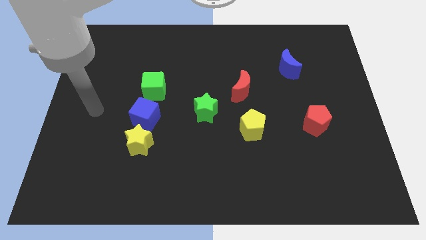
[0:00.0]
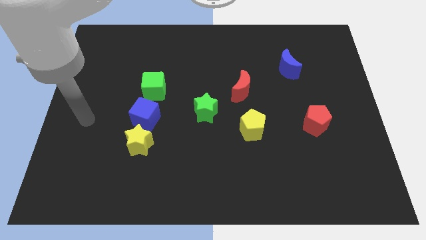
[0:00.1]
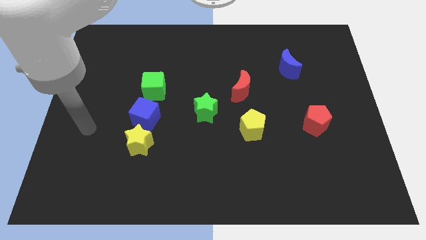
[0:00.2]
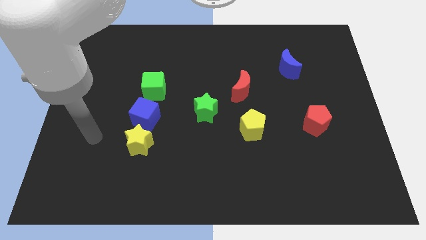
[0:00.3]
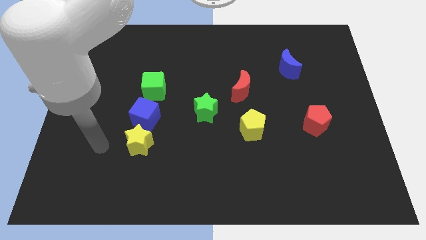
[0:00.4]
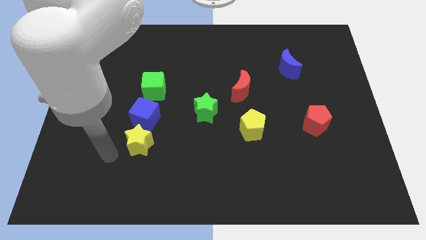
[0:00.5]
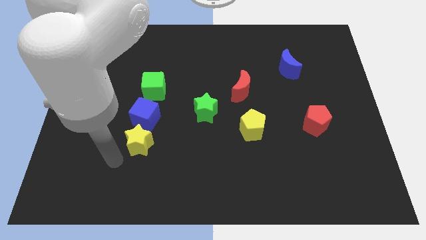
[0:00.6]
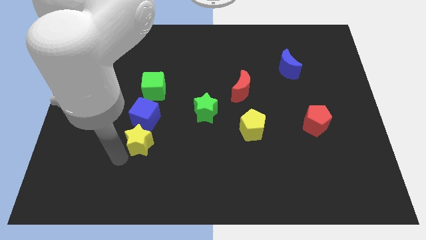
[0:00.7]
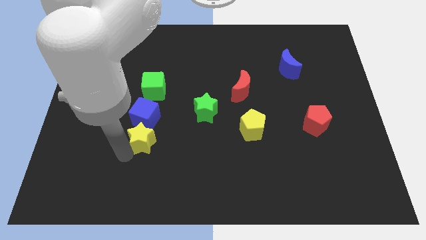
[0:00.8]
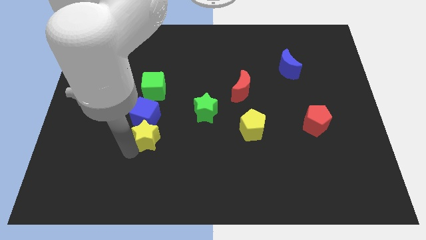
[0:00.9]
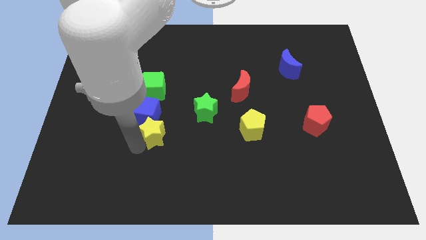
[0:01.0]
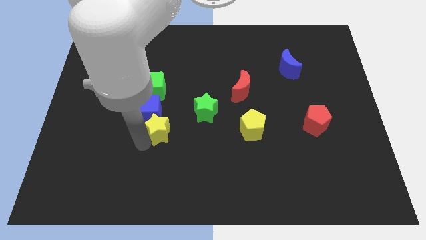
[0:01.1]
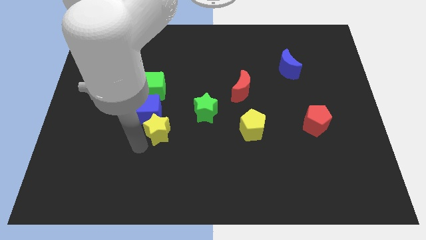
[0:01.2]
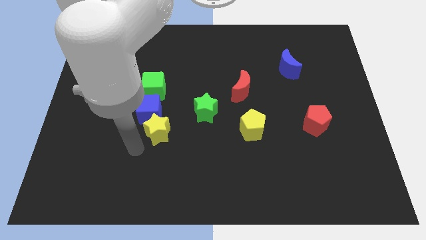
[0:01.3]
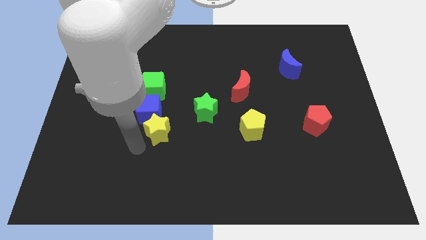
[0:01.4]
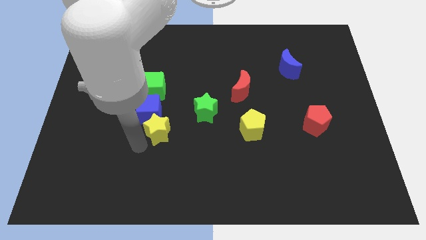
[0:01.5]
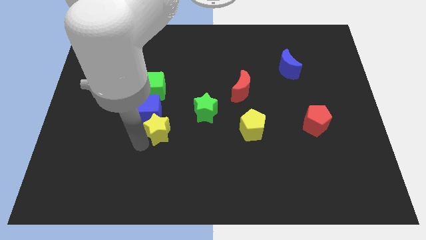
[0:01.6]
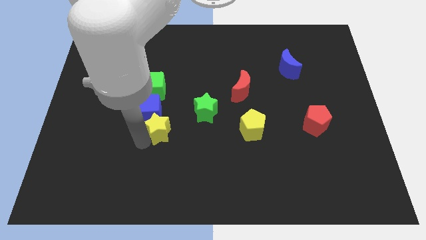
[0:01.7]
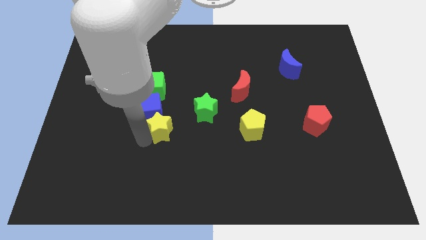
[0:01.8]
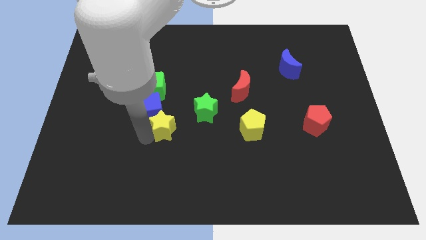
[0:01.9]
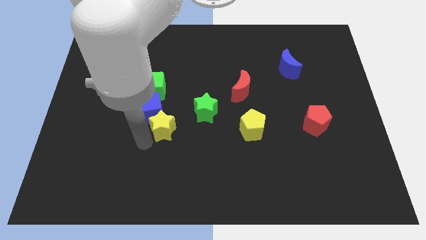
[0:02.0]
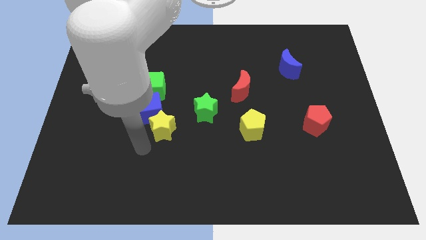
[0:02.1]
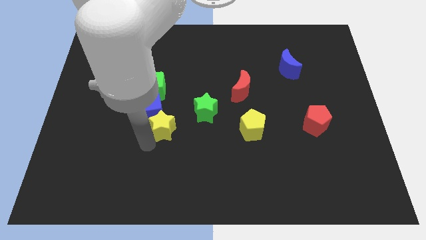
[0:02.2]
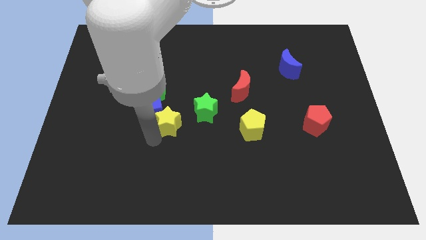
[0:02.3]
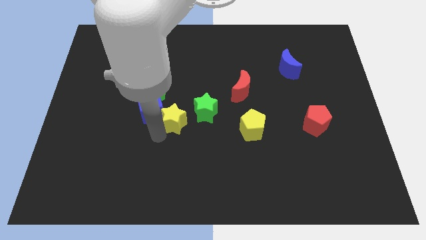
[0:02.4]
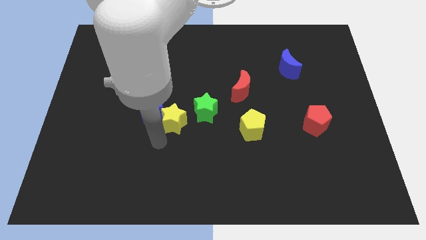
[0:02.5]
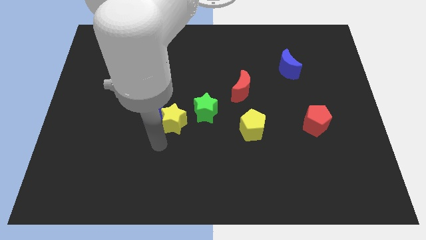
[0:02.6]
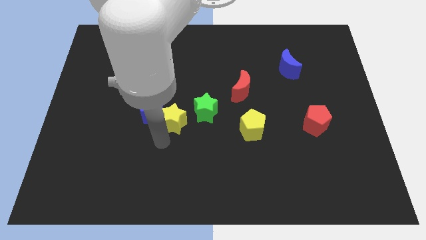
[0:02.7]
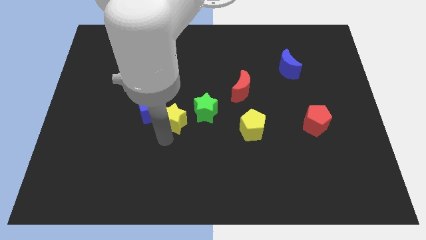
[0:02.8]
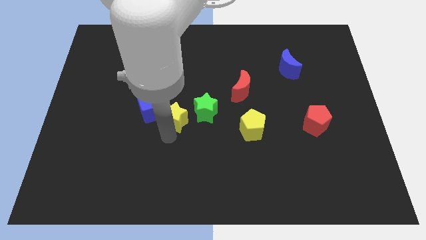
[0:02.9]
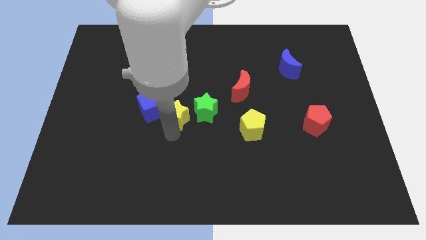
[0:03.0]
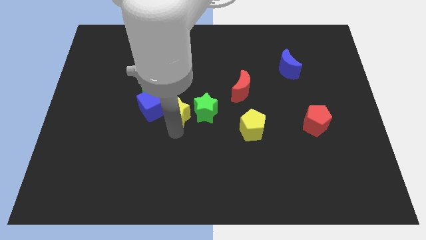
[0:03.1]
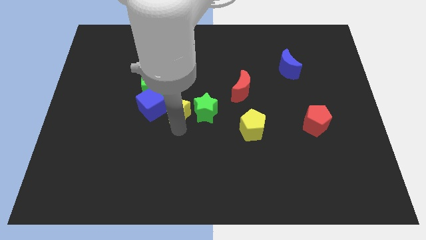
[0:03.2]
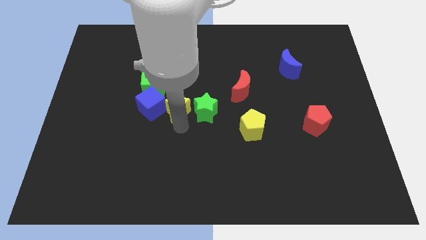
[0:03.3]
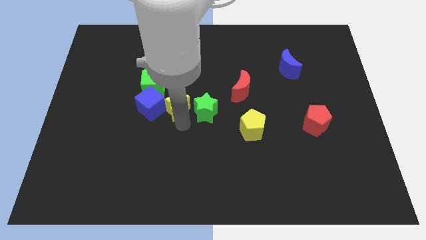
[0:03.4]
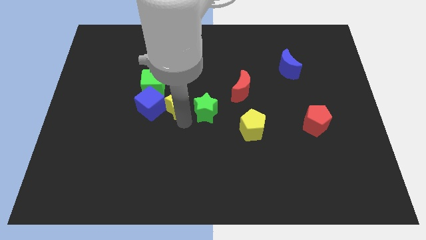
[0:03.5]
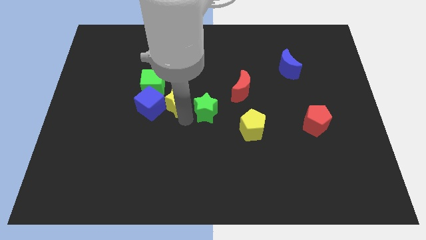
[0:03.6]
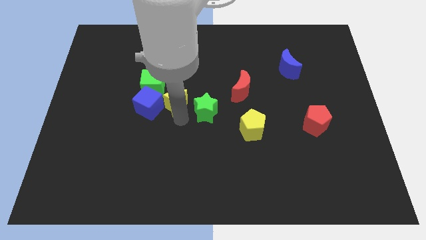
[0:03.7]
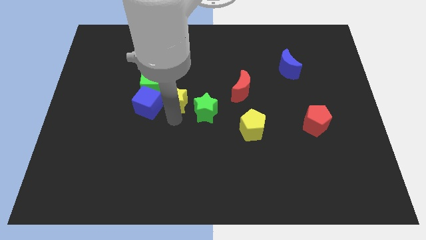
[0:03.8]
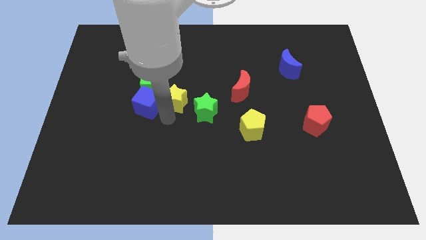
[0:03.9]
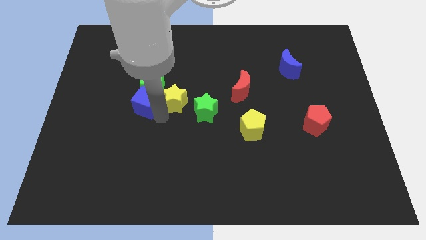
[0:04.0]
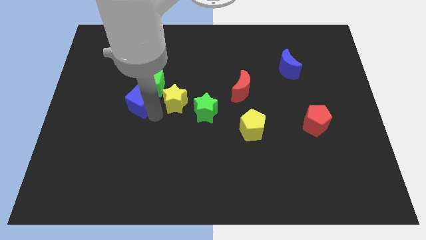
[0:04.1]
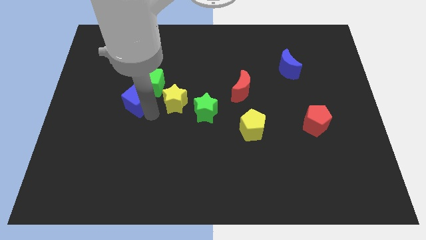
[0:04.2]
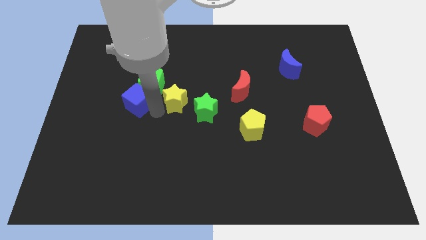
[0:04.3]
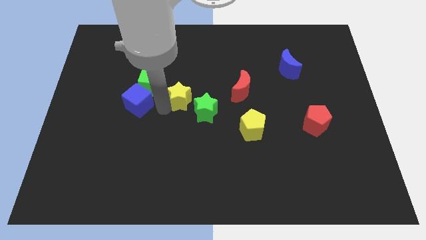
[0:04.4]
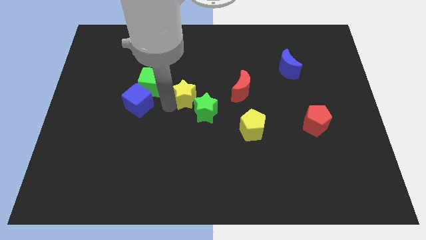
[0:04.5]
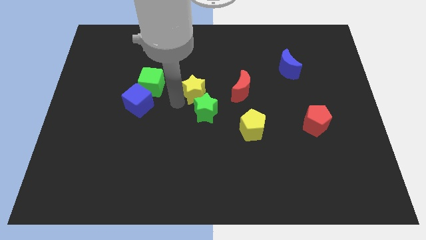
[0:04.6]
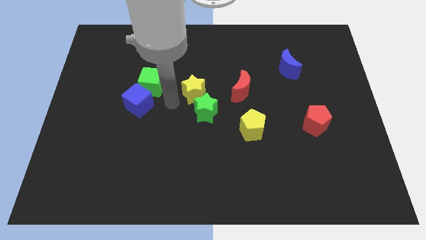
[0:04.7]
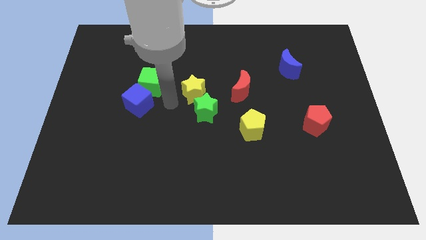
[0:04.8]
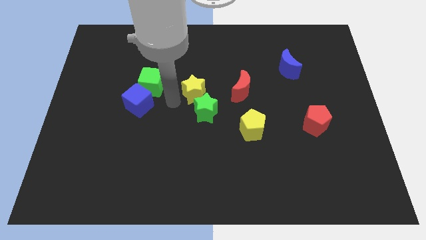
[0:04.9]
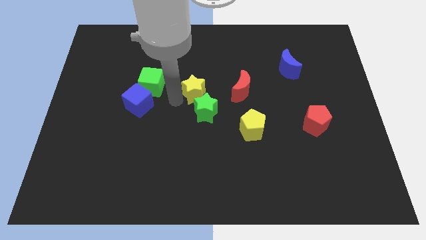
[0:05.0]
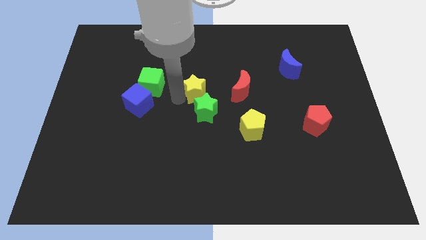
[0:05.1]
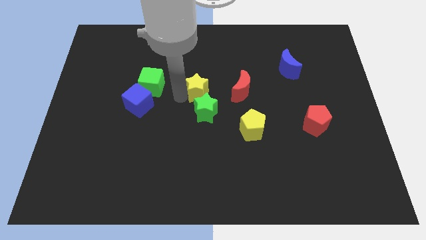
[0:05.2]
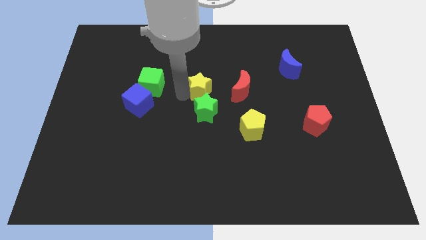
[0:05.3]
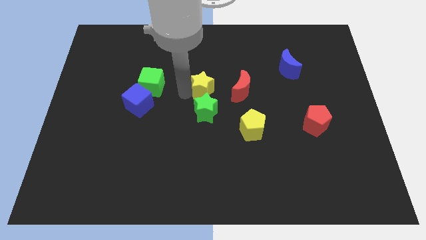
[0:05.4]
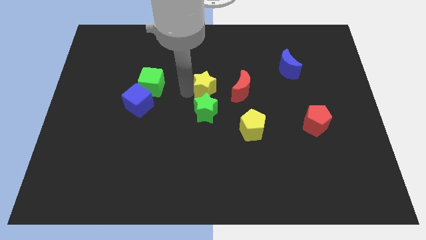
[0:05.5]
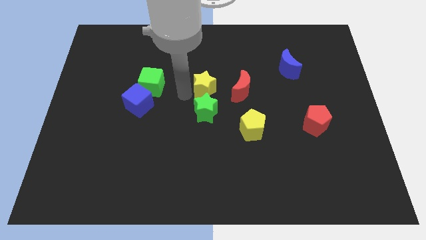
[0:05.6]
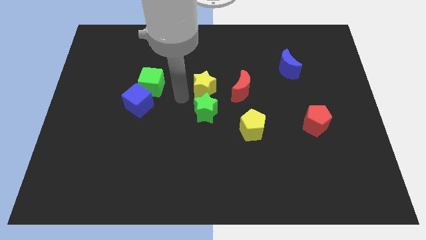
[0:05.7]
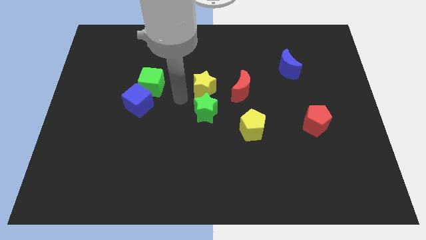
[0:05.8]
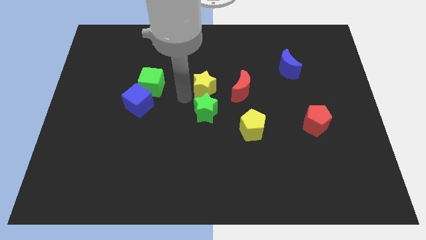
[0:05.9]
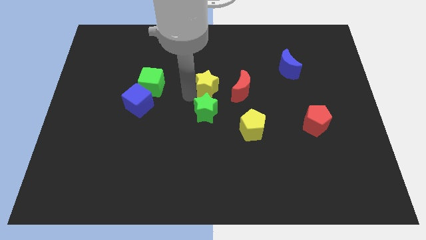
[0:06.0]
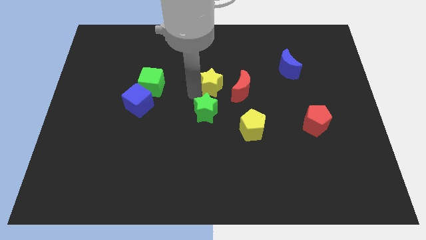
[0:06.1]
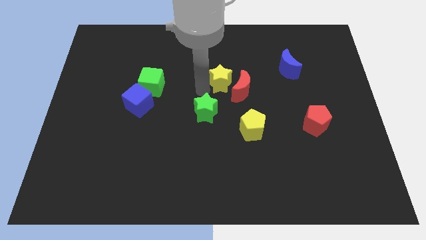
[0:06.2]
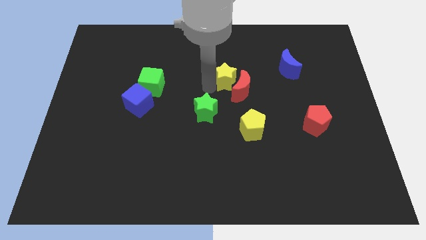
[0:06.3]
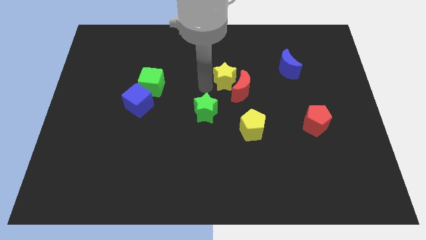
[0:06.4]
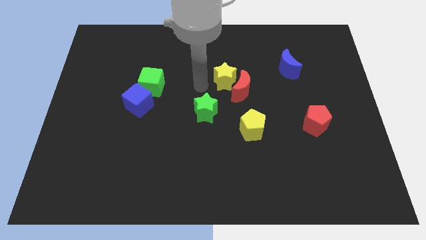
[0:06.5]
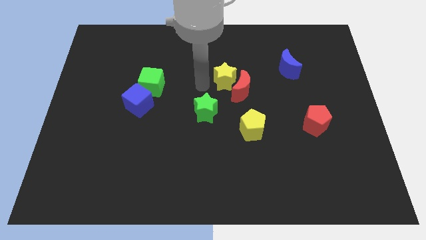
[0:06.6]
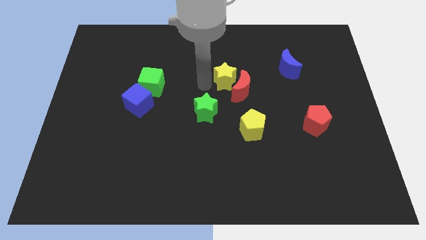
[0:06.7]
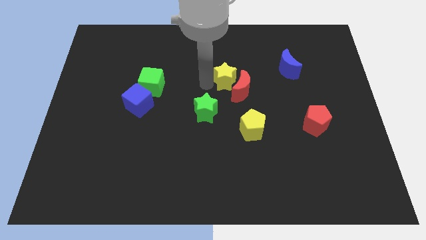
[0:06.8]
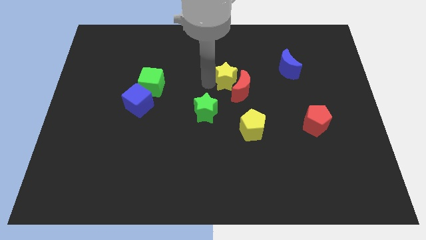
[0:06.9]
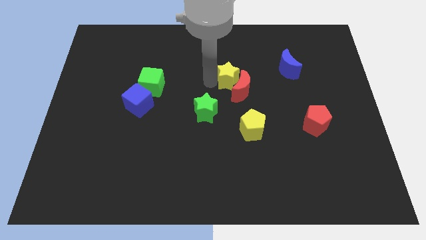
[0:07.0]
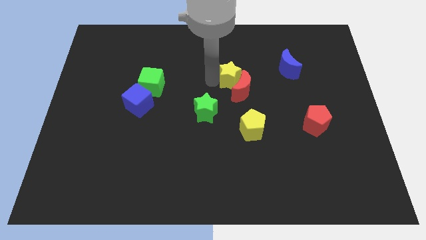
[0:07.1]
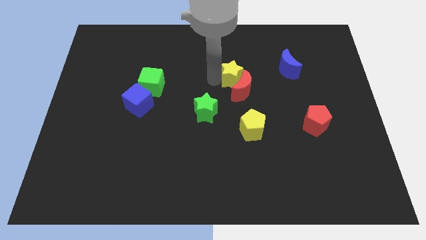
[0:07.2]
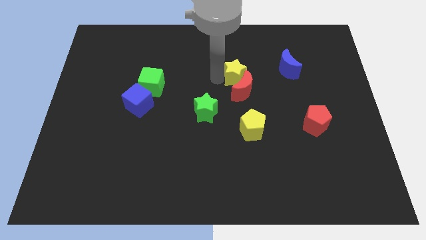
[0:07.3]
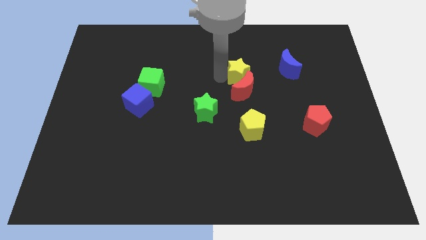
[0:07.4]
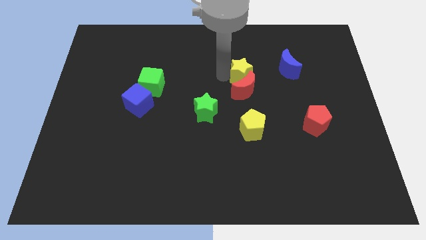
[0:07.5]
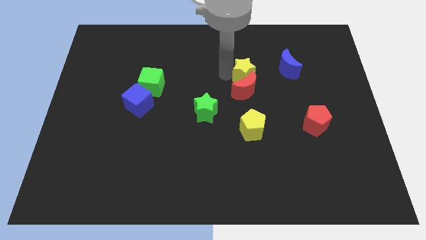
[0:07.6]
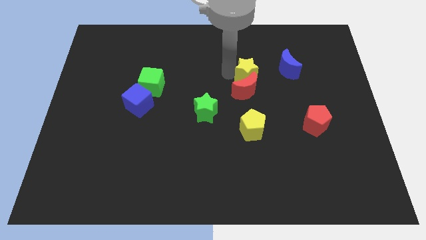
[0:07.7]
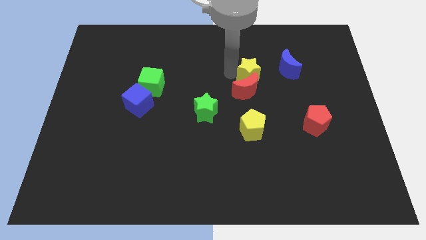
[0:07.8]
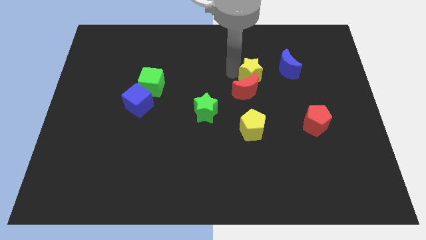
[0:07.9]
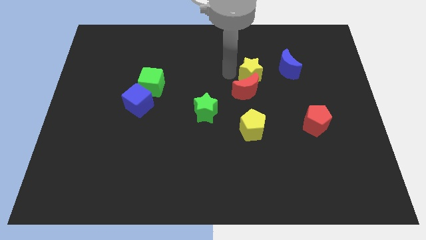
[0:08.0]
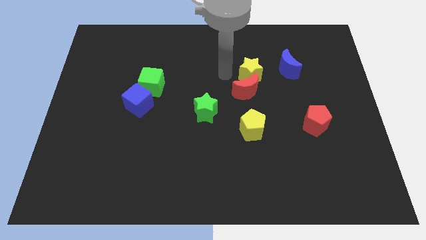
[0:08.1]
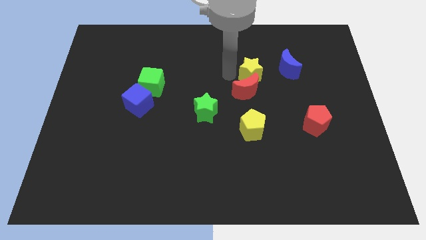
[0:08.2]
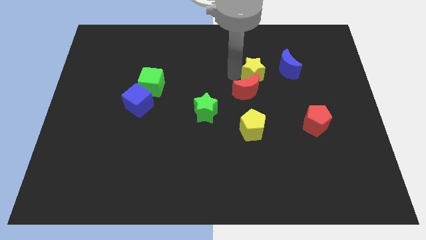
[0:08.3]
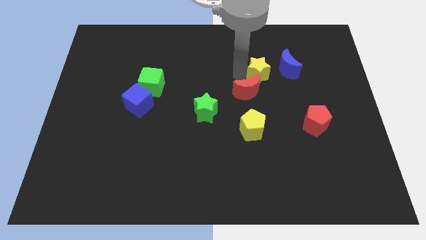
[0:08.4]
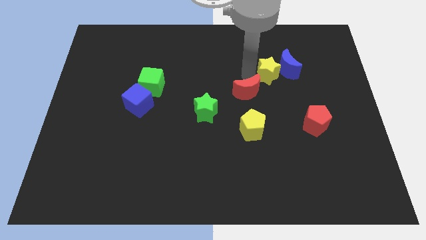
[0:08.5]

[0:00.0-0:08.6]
put the yellow star close to the blue moon
